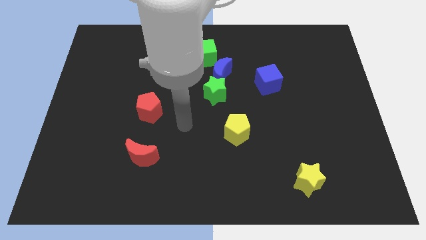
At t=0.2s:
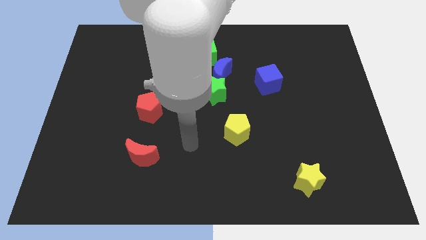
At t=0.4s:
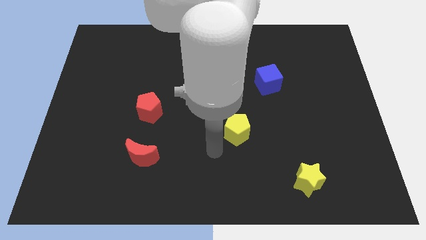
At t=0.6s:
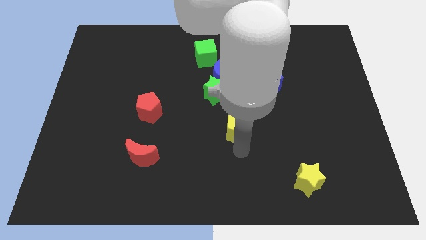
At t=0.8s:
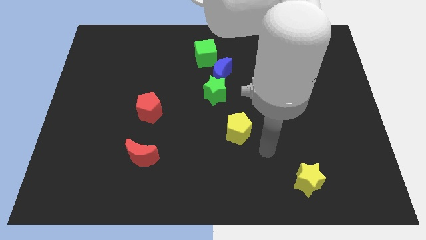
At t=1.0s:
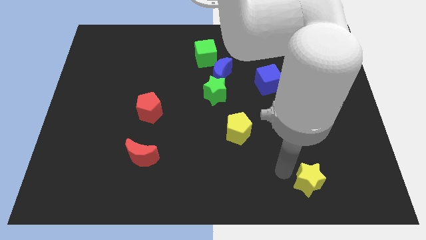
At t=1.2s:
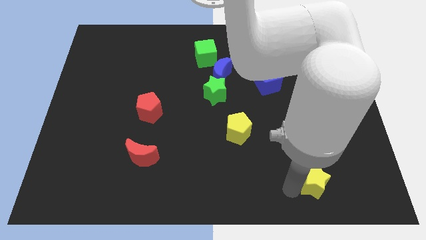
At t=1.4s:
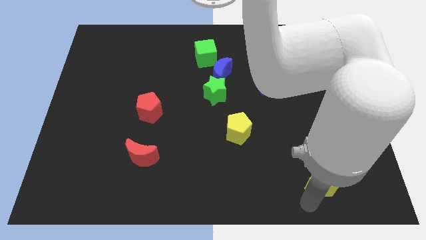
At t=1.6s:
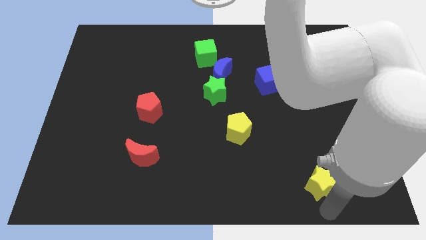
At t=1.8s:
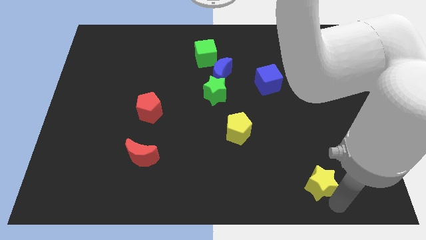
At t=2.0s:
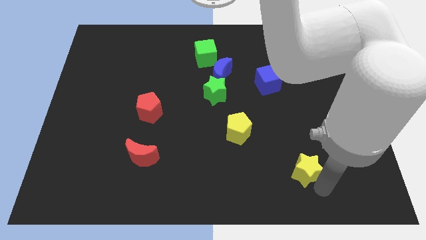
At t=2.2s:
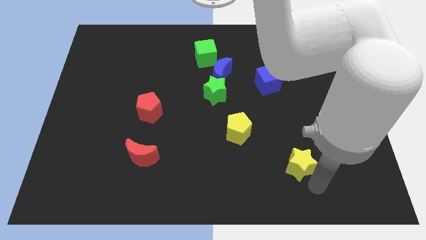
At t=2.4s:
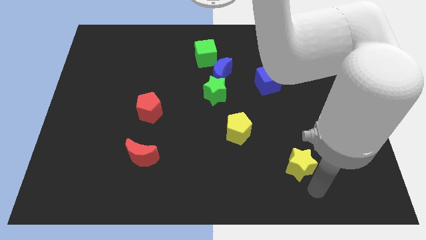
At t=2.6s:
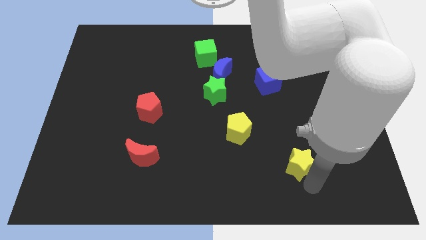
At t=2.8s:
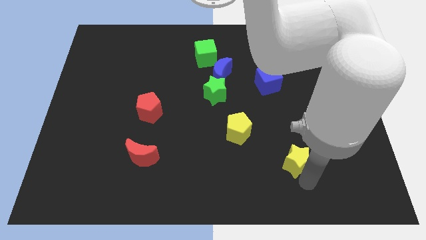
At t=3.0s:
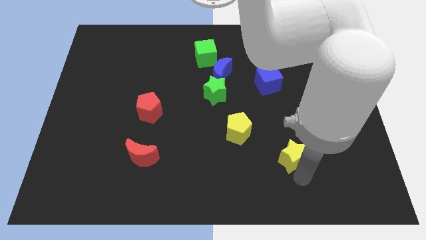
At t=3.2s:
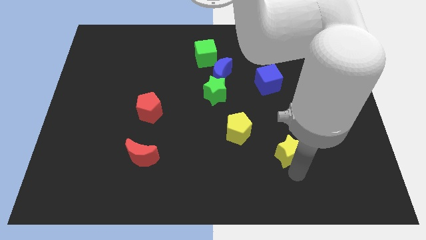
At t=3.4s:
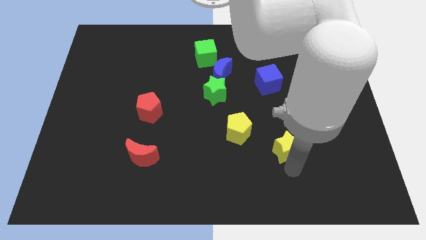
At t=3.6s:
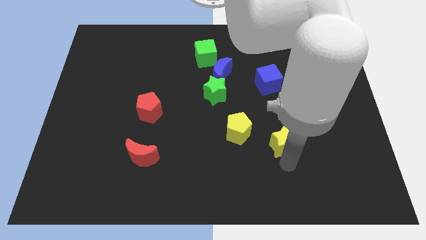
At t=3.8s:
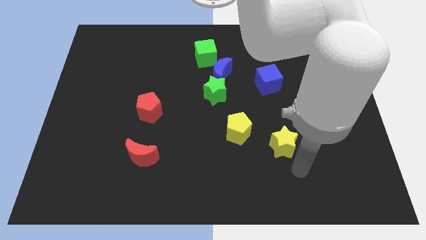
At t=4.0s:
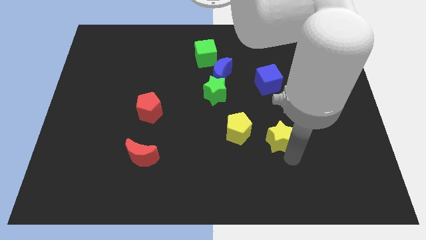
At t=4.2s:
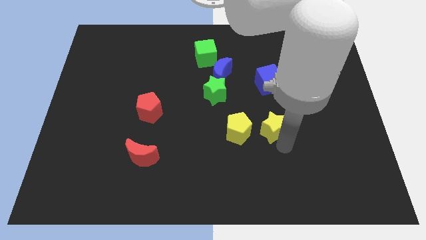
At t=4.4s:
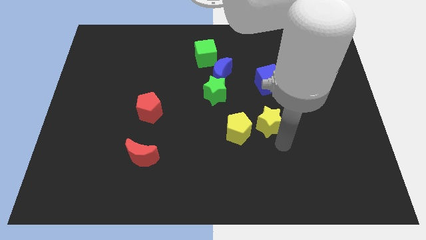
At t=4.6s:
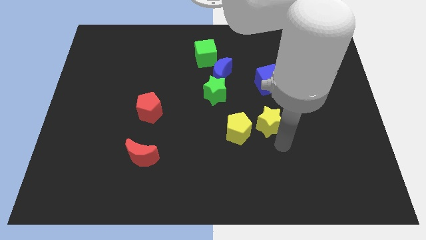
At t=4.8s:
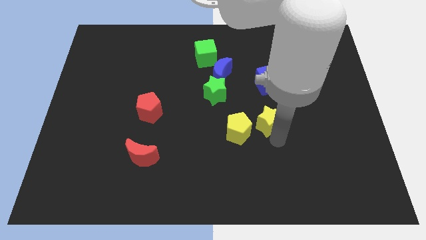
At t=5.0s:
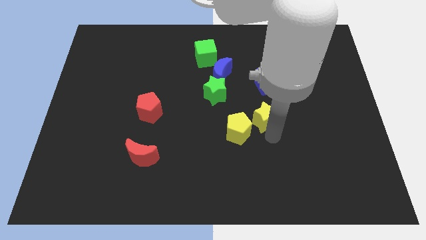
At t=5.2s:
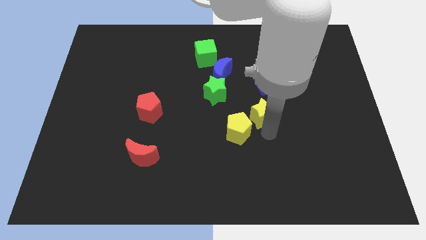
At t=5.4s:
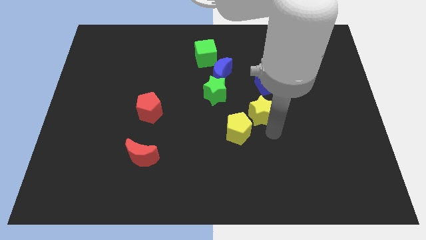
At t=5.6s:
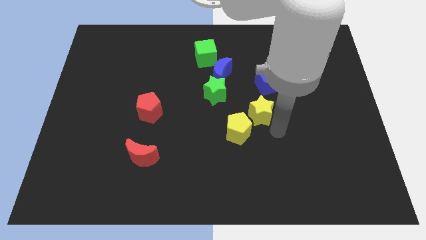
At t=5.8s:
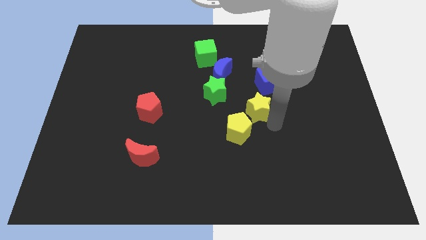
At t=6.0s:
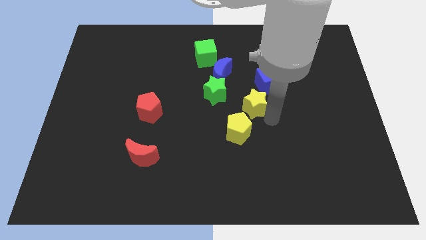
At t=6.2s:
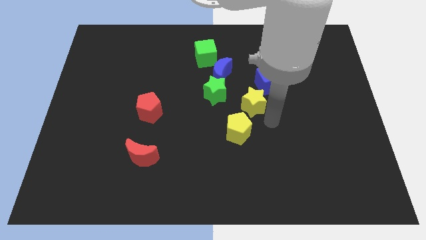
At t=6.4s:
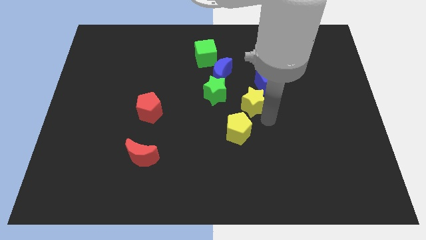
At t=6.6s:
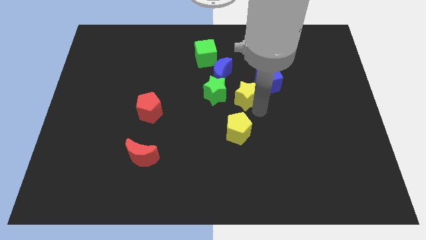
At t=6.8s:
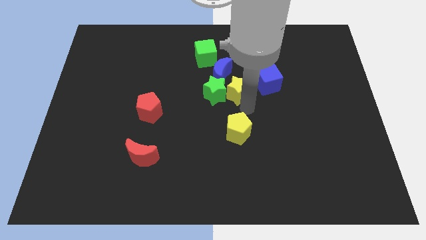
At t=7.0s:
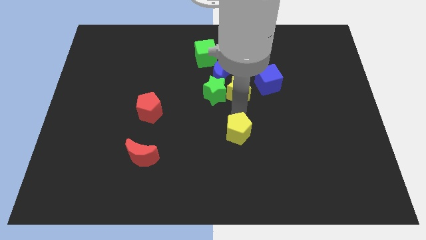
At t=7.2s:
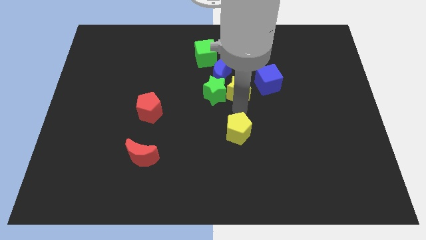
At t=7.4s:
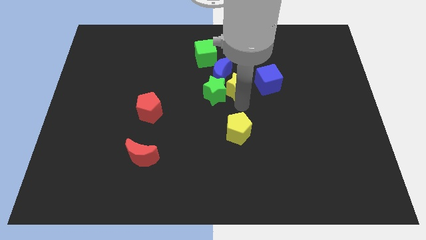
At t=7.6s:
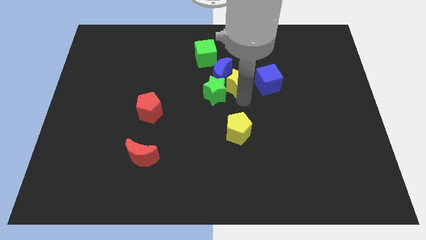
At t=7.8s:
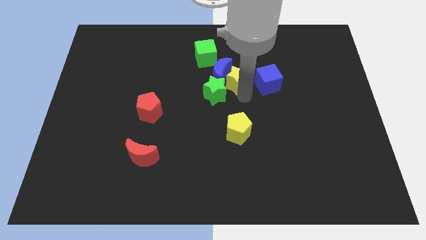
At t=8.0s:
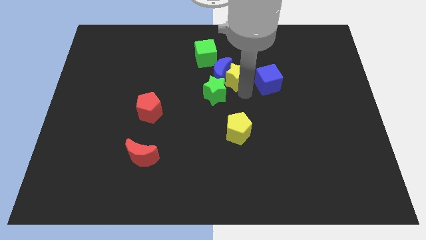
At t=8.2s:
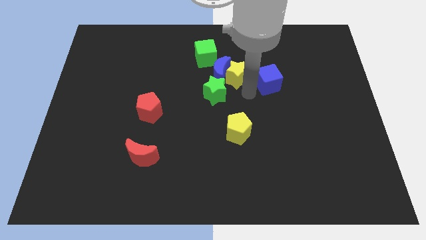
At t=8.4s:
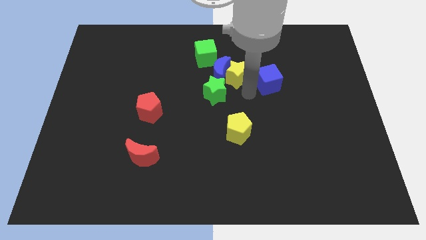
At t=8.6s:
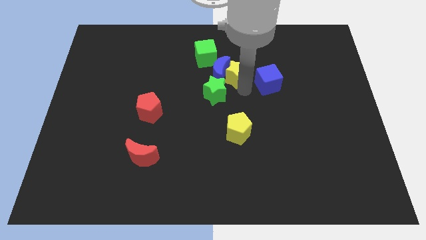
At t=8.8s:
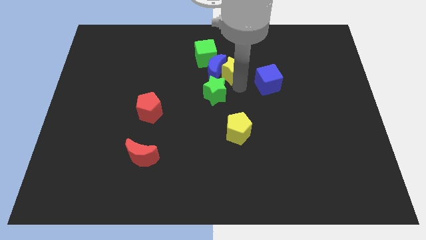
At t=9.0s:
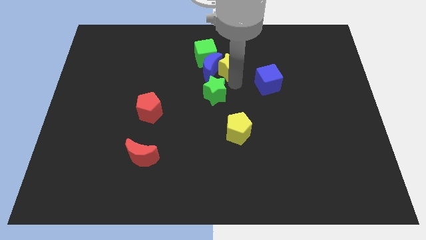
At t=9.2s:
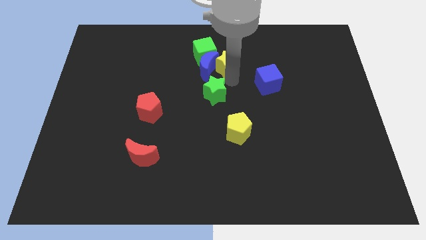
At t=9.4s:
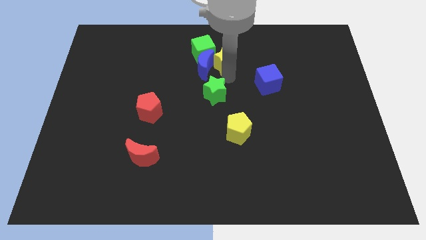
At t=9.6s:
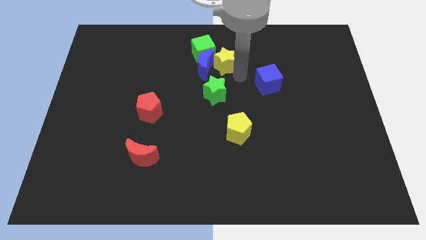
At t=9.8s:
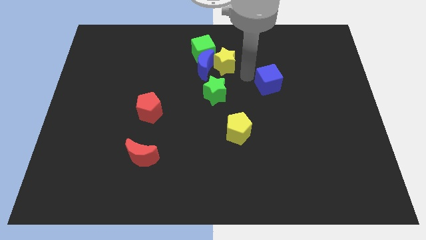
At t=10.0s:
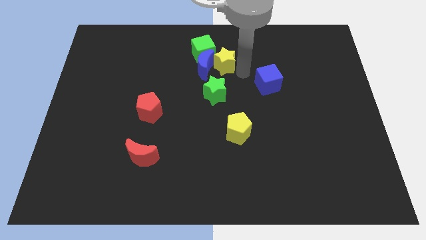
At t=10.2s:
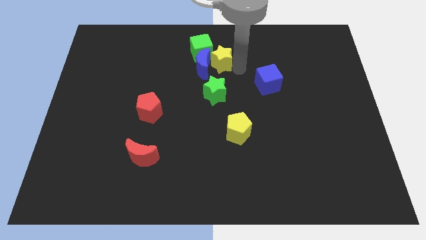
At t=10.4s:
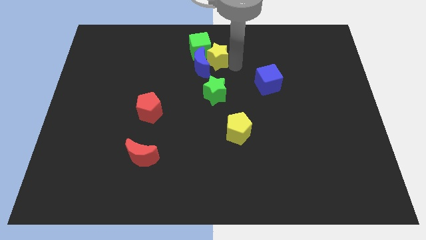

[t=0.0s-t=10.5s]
put the yellow star towards the green cube

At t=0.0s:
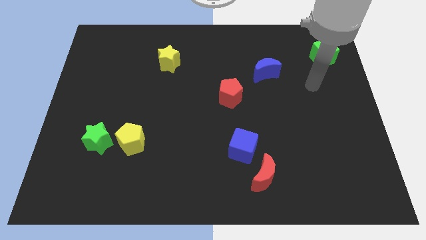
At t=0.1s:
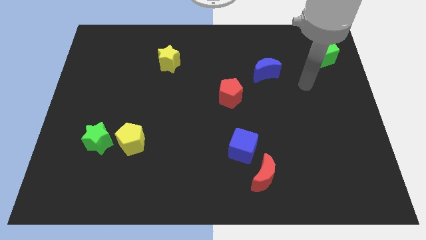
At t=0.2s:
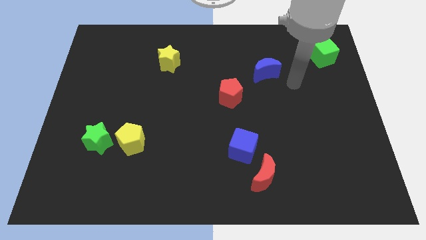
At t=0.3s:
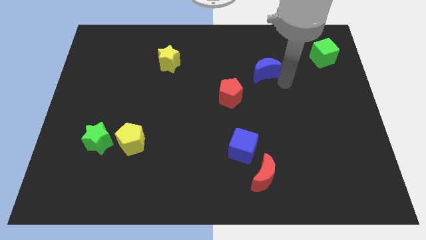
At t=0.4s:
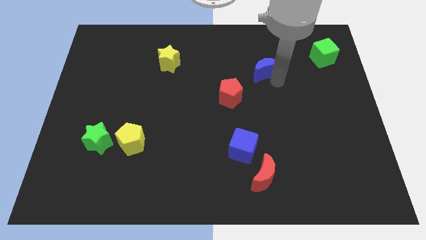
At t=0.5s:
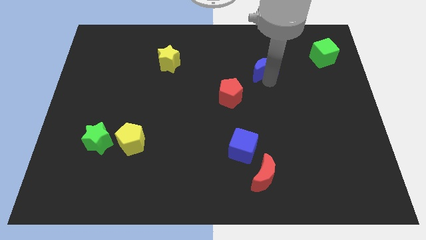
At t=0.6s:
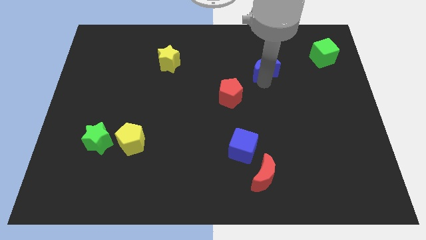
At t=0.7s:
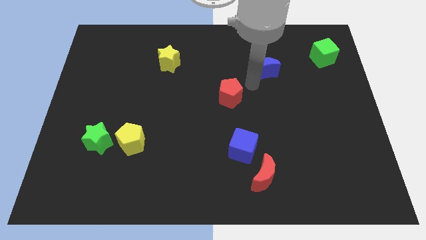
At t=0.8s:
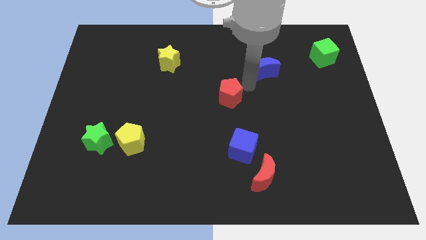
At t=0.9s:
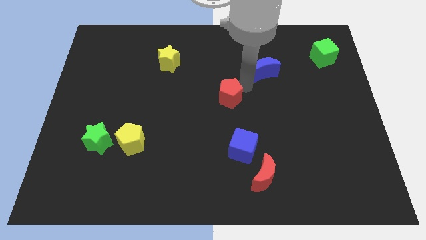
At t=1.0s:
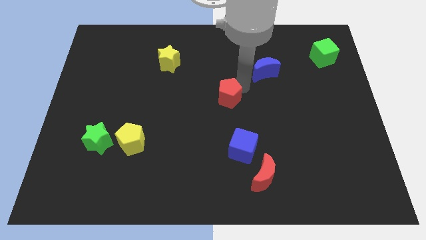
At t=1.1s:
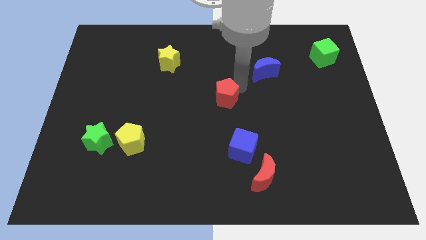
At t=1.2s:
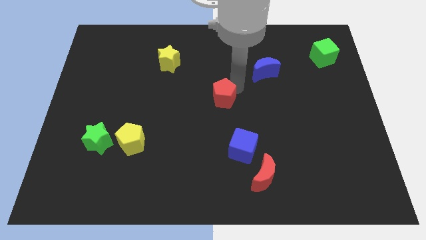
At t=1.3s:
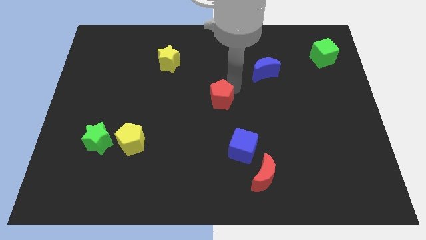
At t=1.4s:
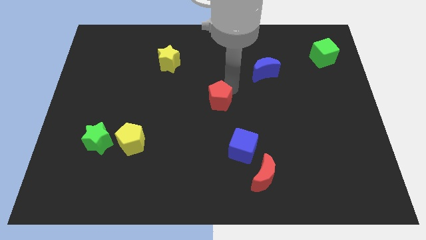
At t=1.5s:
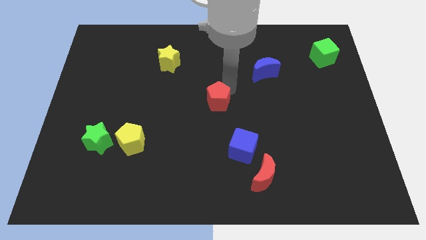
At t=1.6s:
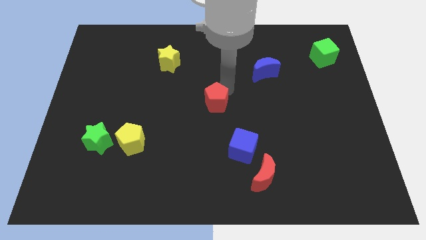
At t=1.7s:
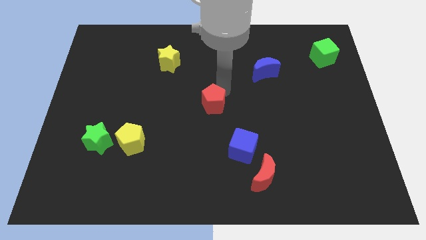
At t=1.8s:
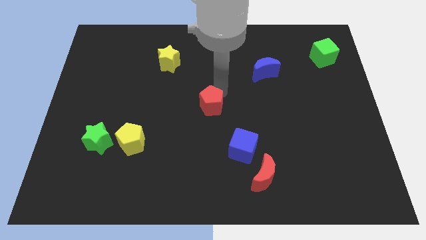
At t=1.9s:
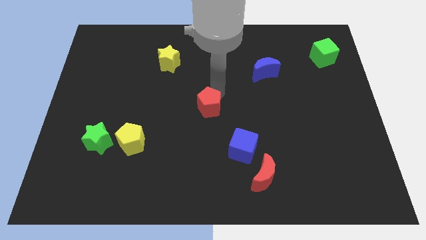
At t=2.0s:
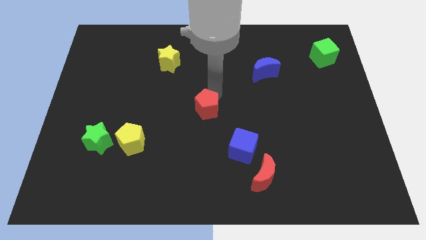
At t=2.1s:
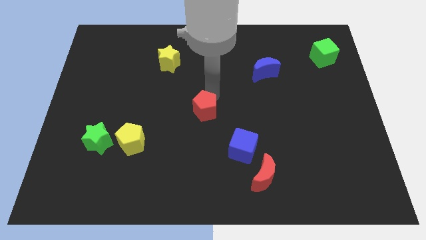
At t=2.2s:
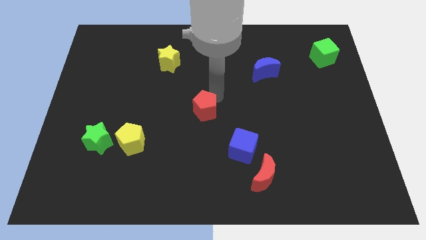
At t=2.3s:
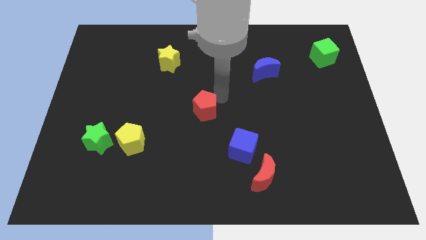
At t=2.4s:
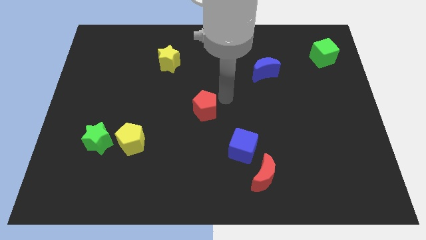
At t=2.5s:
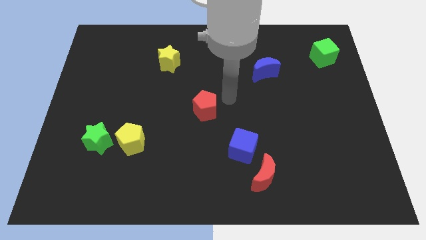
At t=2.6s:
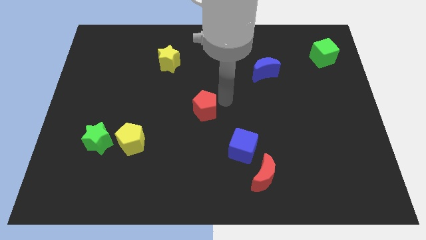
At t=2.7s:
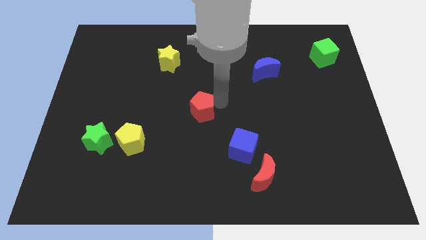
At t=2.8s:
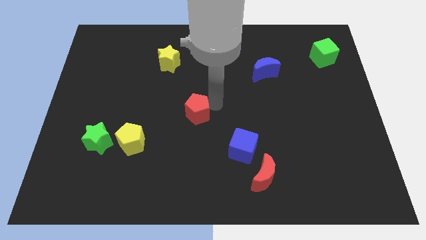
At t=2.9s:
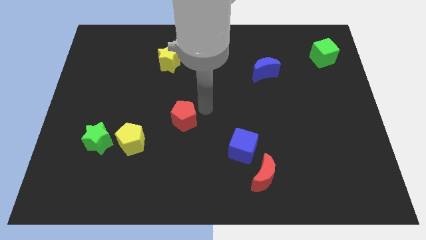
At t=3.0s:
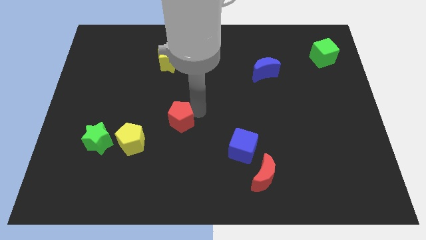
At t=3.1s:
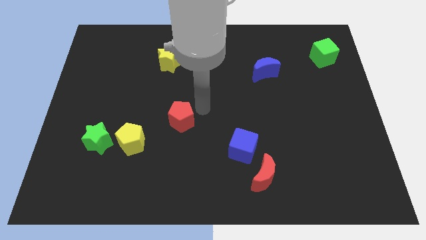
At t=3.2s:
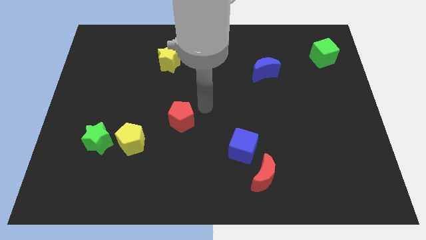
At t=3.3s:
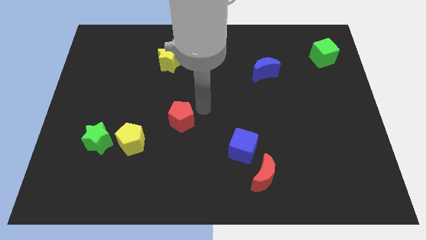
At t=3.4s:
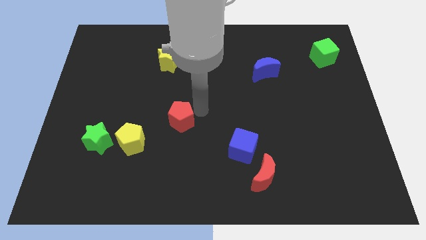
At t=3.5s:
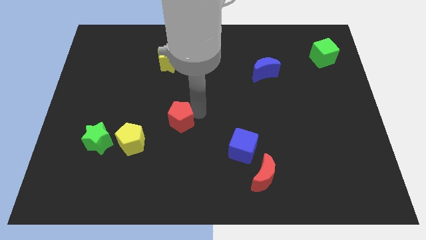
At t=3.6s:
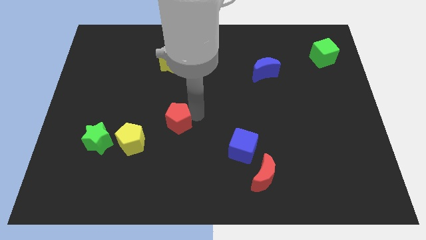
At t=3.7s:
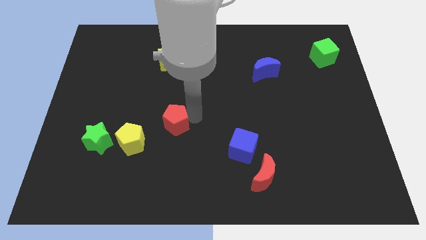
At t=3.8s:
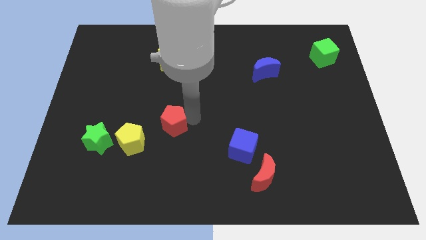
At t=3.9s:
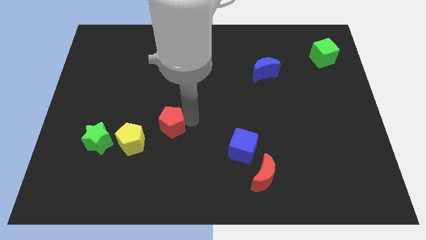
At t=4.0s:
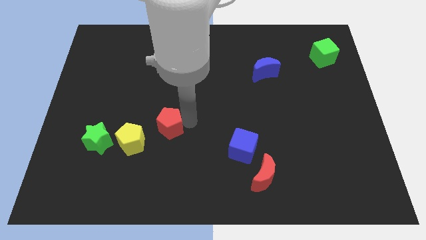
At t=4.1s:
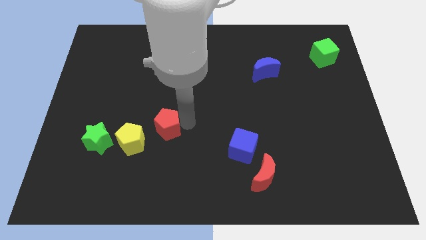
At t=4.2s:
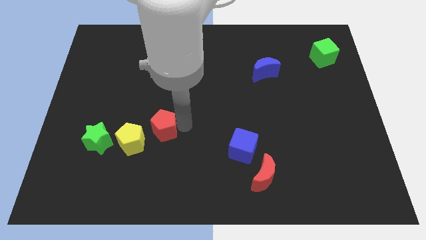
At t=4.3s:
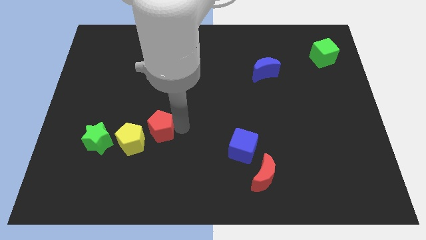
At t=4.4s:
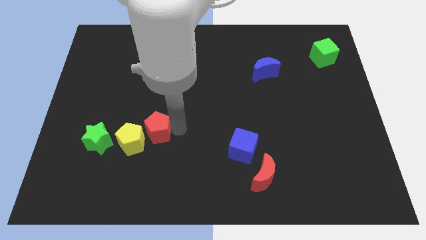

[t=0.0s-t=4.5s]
move the red pentagon close to the yellow pentagon
